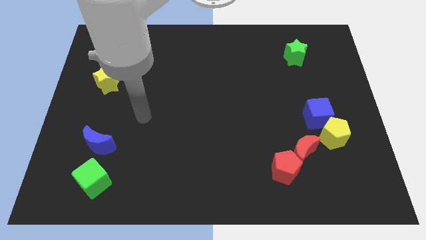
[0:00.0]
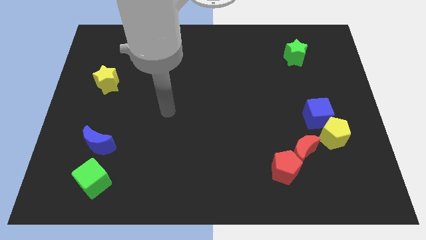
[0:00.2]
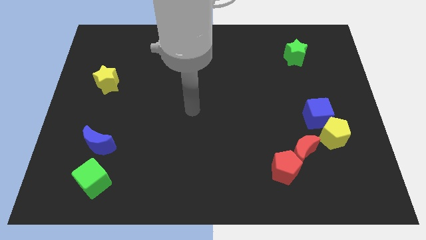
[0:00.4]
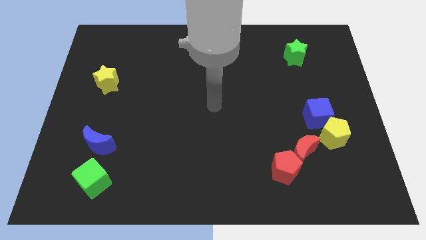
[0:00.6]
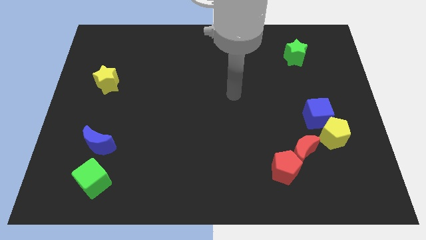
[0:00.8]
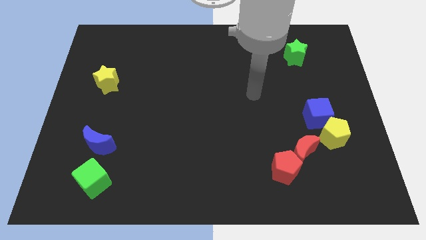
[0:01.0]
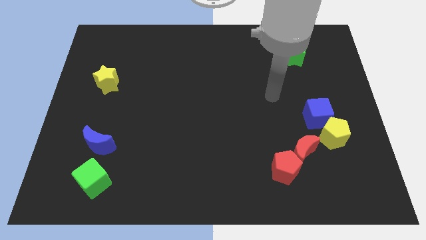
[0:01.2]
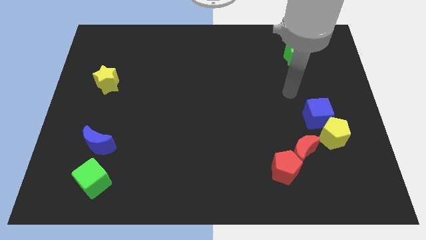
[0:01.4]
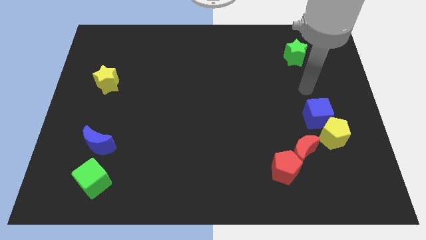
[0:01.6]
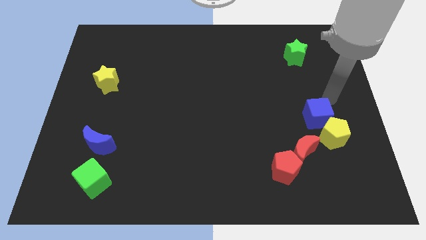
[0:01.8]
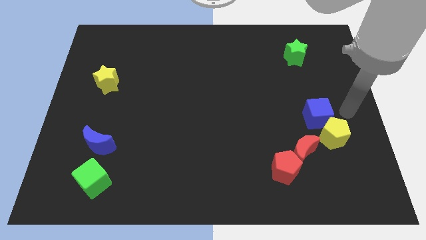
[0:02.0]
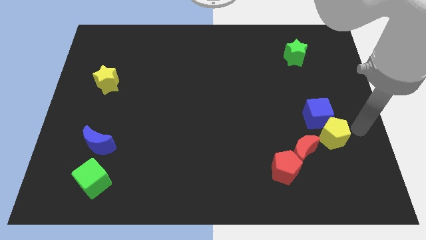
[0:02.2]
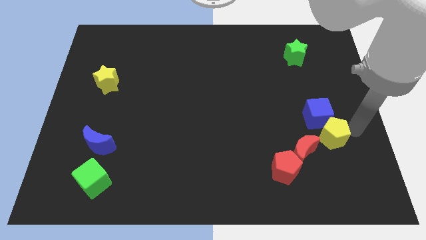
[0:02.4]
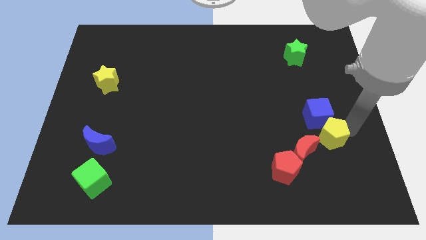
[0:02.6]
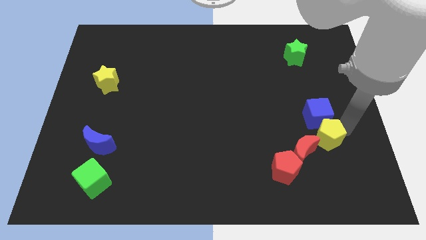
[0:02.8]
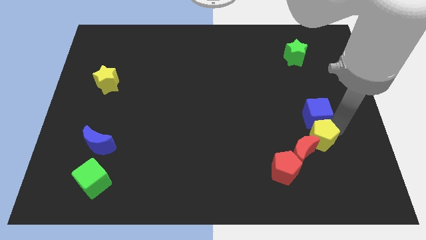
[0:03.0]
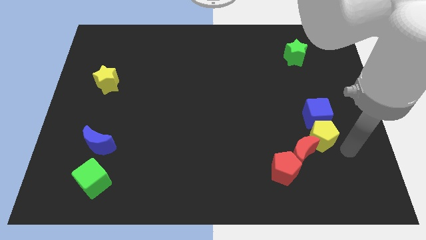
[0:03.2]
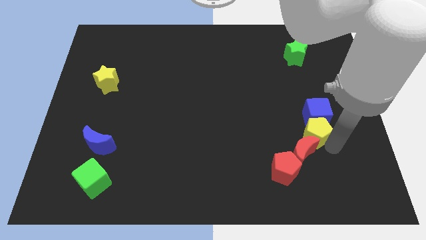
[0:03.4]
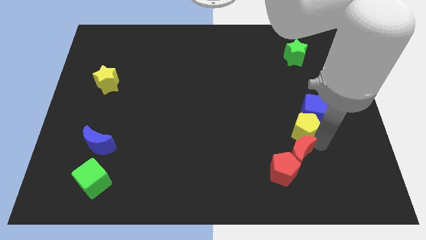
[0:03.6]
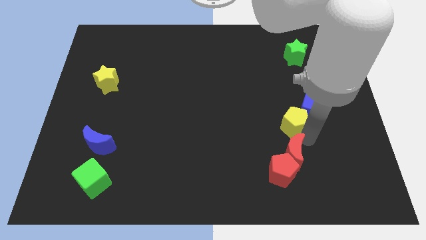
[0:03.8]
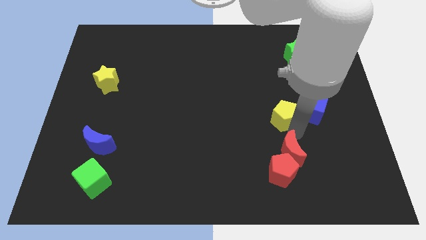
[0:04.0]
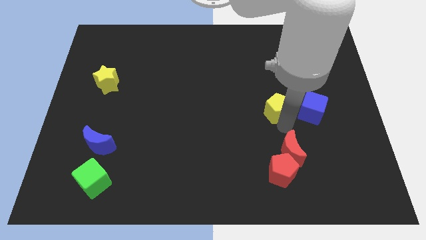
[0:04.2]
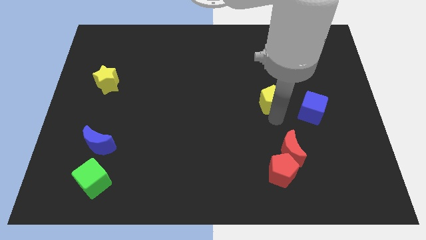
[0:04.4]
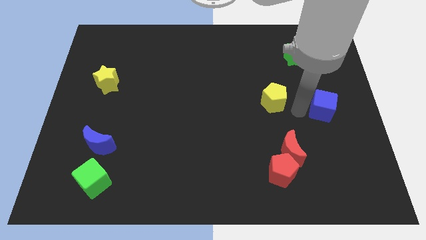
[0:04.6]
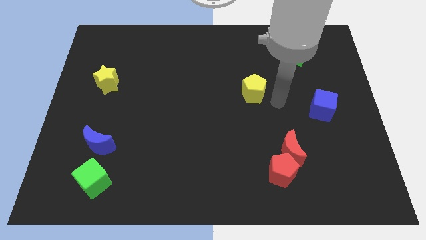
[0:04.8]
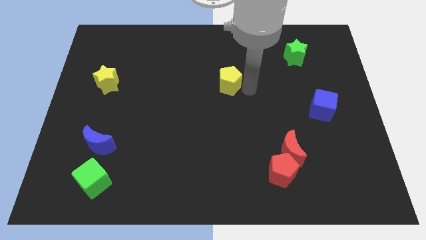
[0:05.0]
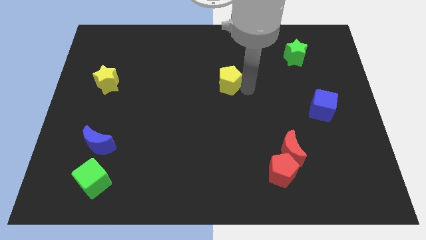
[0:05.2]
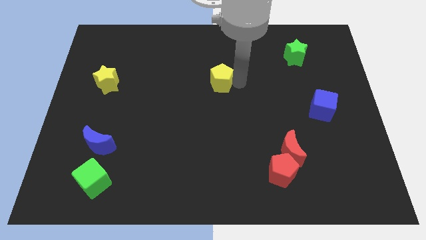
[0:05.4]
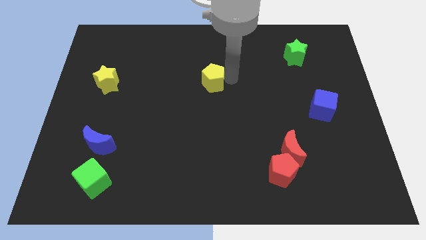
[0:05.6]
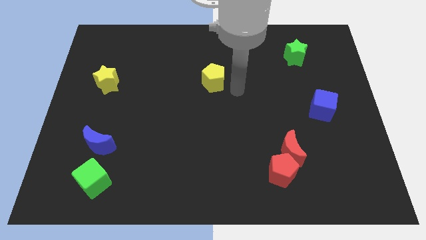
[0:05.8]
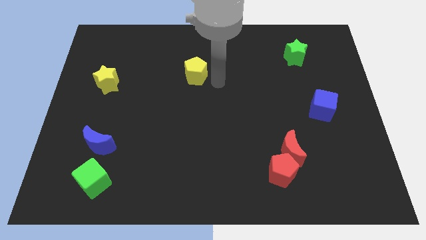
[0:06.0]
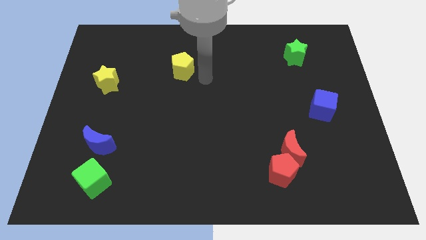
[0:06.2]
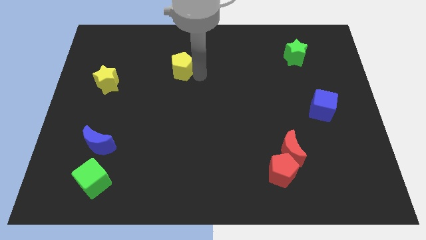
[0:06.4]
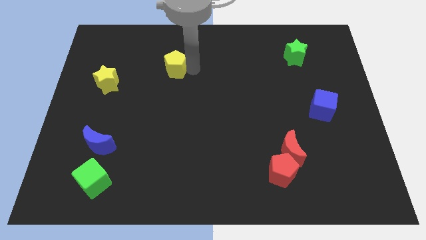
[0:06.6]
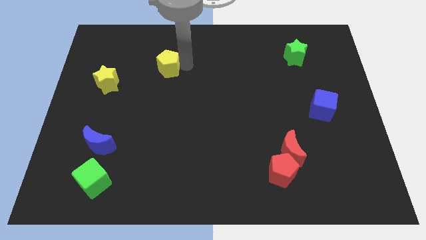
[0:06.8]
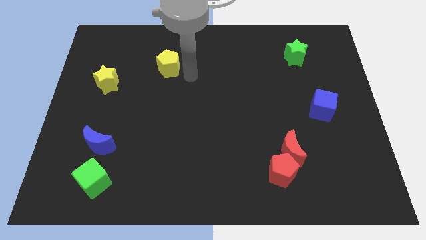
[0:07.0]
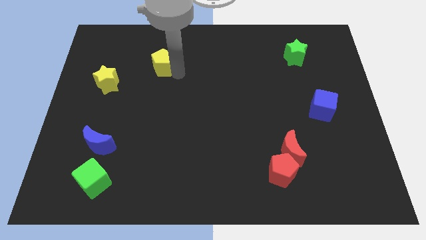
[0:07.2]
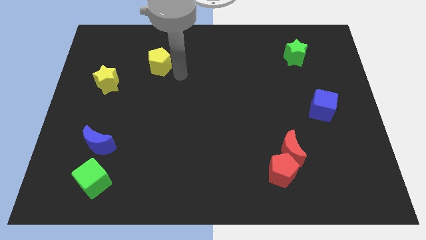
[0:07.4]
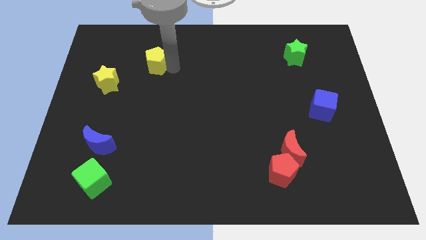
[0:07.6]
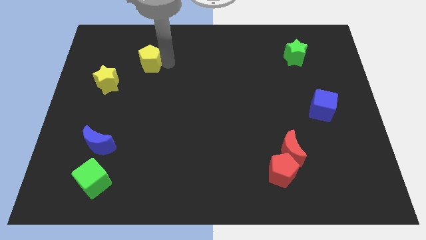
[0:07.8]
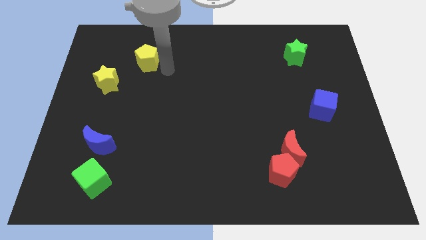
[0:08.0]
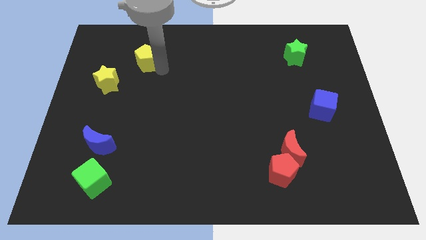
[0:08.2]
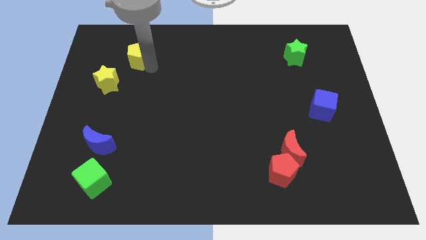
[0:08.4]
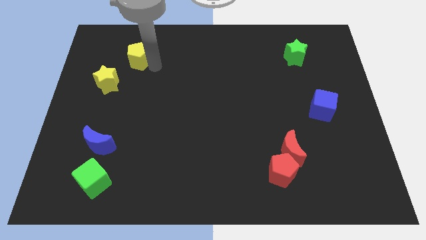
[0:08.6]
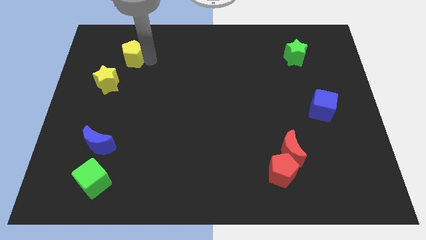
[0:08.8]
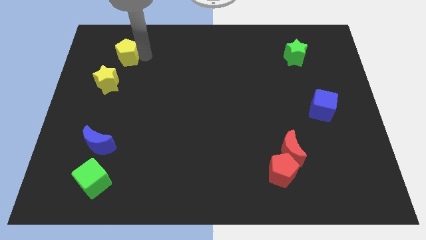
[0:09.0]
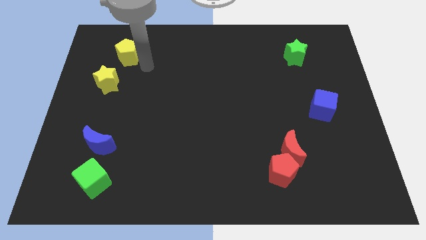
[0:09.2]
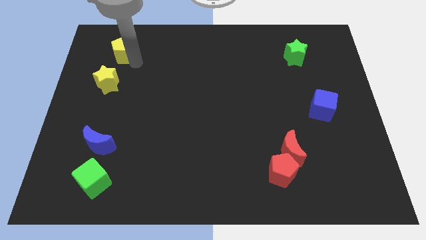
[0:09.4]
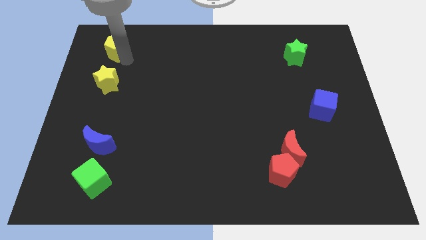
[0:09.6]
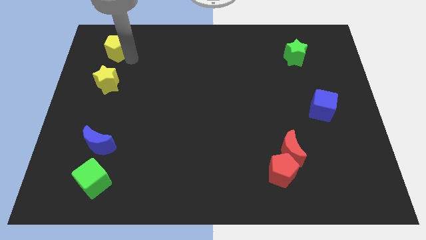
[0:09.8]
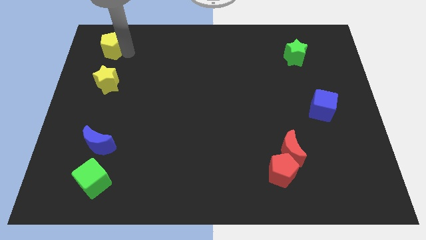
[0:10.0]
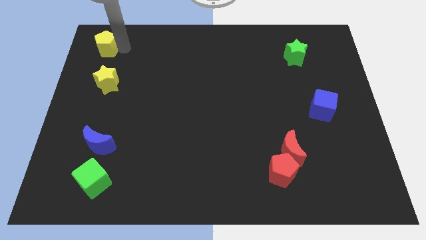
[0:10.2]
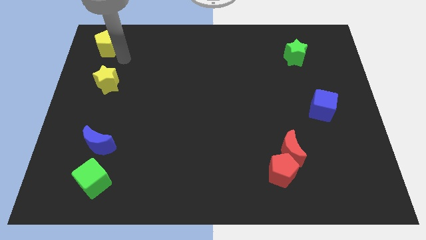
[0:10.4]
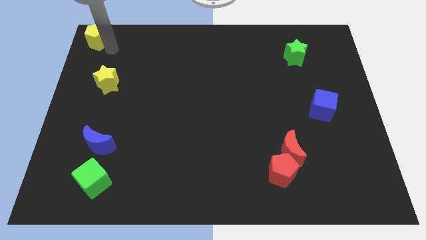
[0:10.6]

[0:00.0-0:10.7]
put the yellow pentagon to the upper left corner

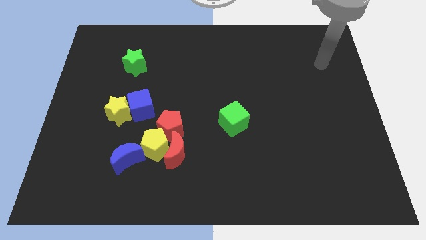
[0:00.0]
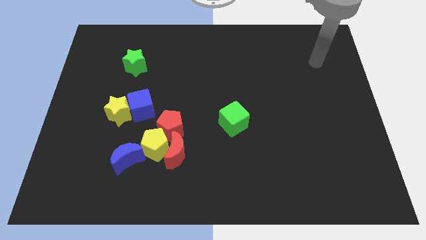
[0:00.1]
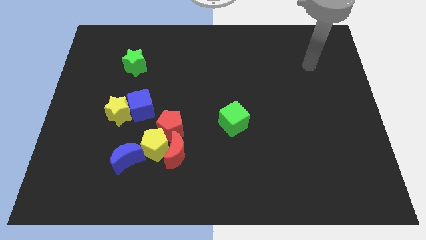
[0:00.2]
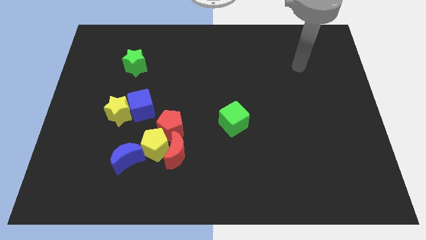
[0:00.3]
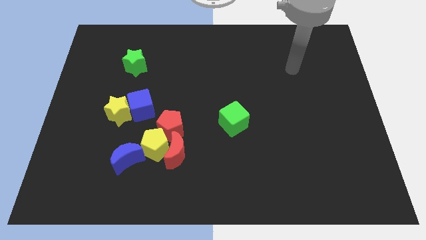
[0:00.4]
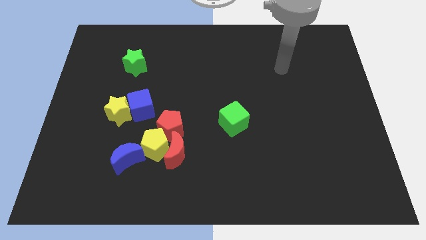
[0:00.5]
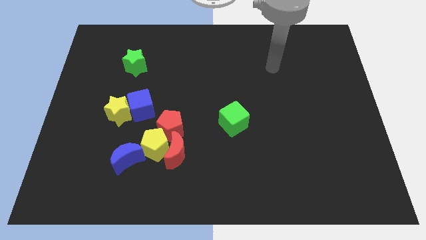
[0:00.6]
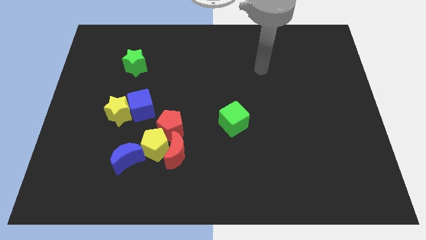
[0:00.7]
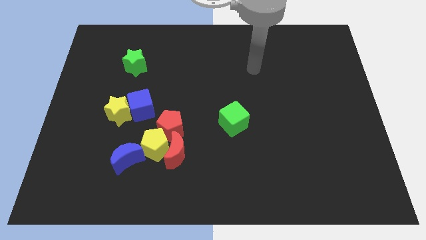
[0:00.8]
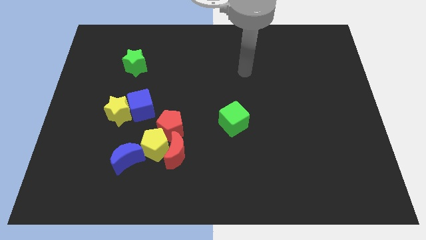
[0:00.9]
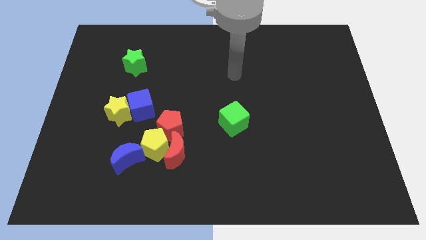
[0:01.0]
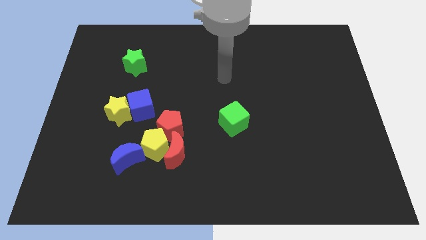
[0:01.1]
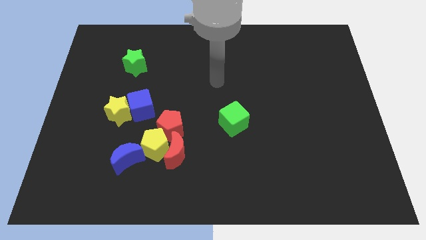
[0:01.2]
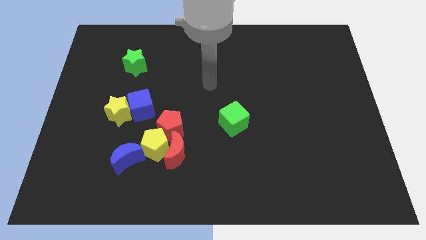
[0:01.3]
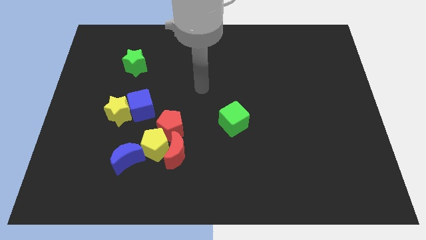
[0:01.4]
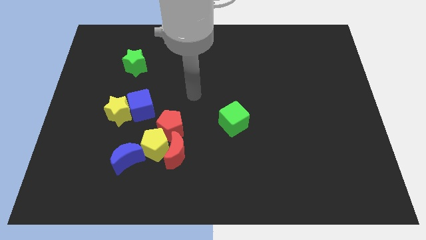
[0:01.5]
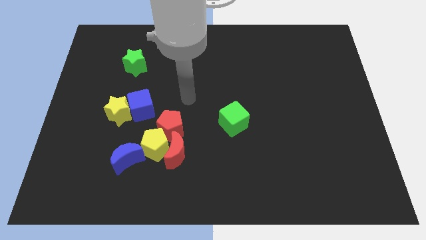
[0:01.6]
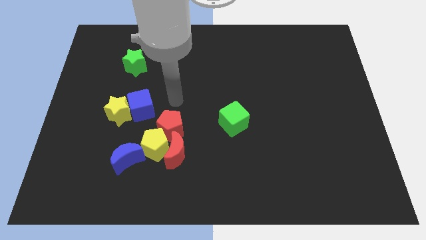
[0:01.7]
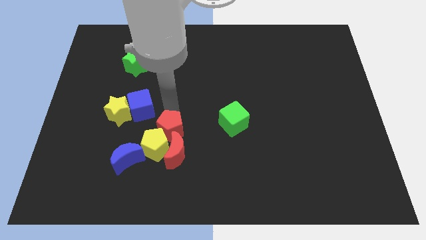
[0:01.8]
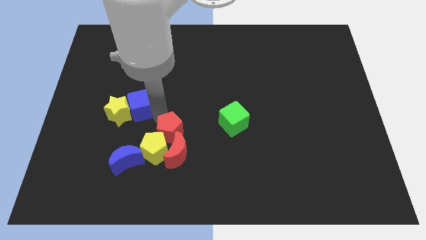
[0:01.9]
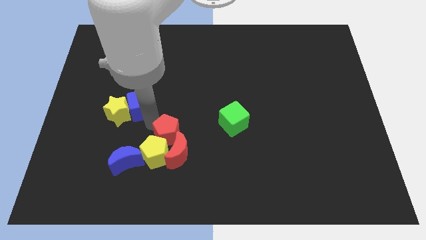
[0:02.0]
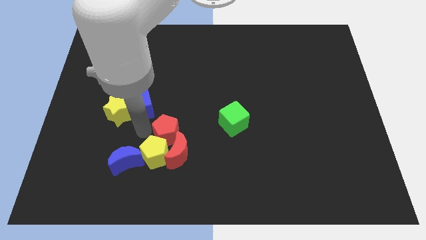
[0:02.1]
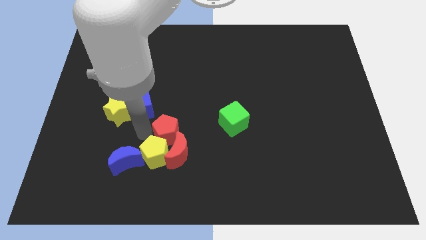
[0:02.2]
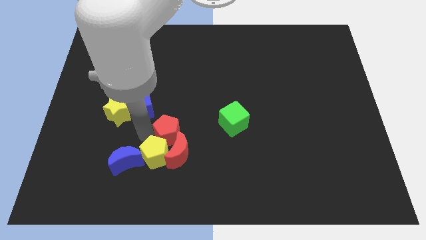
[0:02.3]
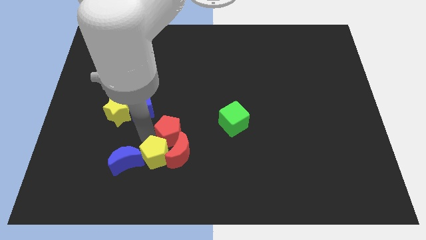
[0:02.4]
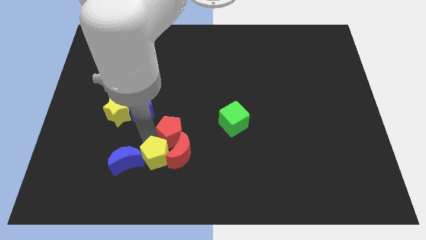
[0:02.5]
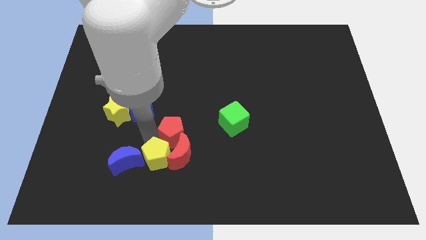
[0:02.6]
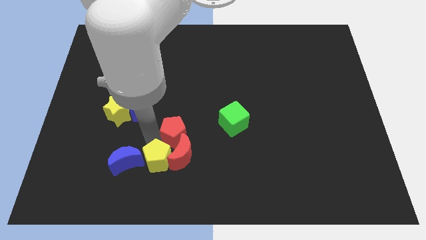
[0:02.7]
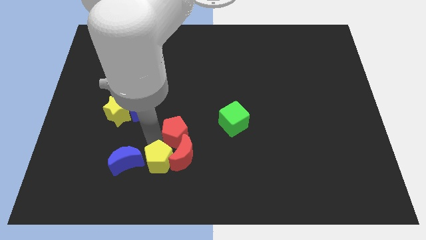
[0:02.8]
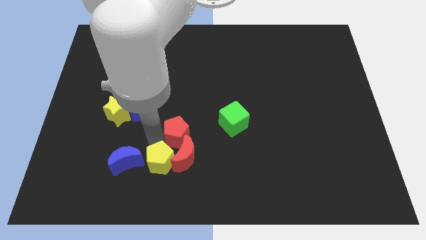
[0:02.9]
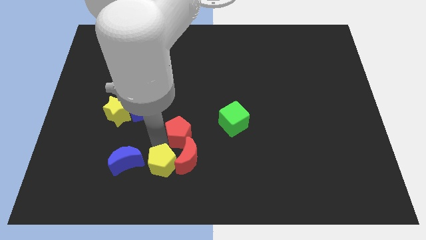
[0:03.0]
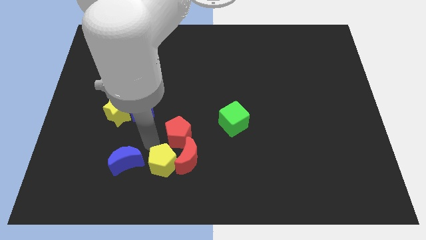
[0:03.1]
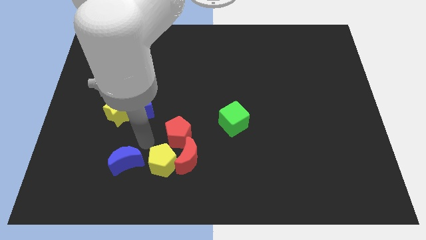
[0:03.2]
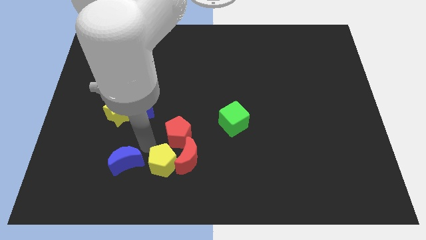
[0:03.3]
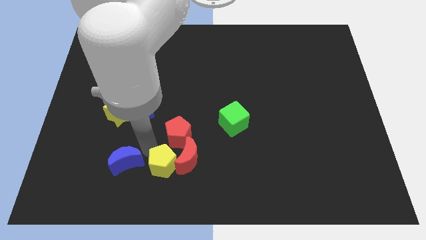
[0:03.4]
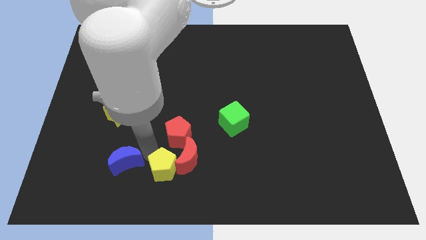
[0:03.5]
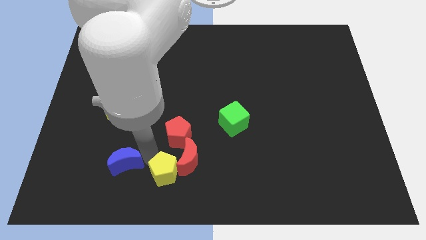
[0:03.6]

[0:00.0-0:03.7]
push the yellow pentagon to the bottom
